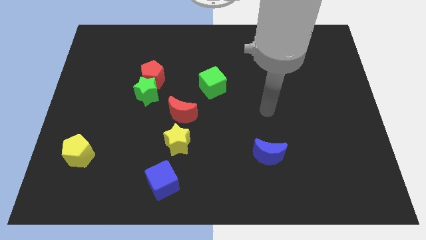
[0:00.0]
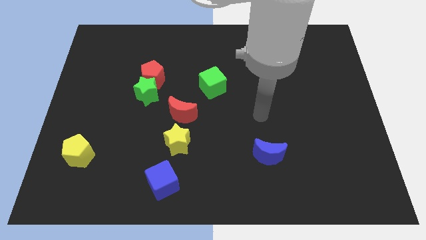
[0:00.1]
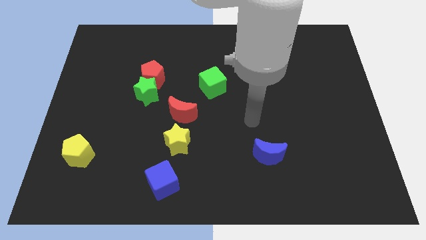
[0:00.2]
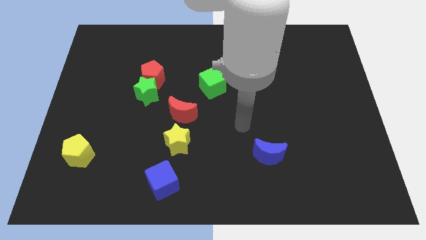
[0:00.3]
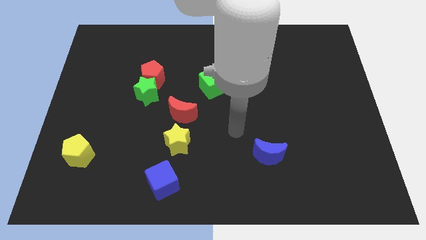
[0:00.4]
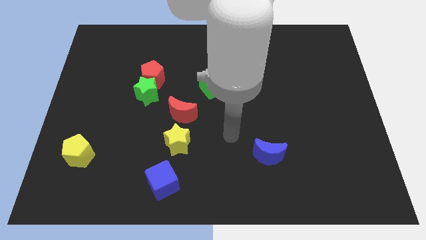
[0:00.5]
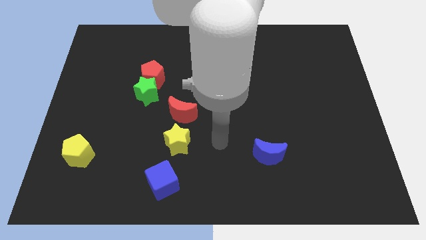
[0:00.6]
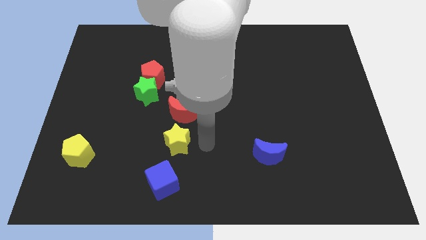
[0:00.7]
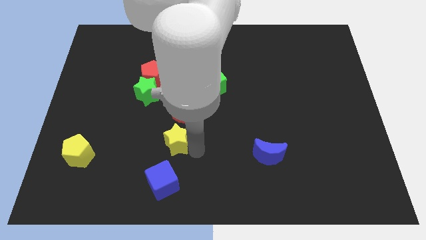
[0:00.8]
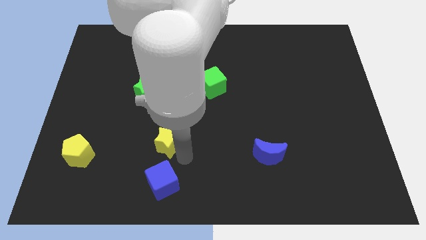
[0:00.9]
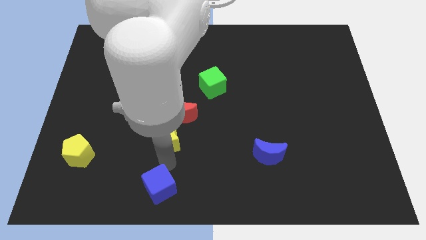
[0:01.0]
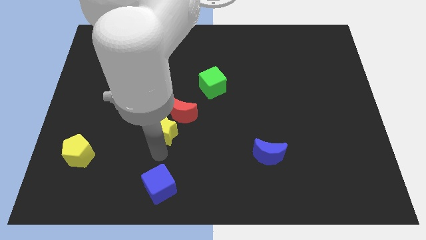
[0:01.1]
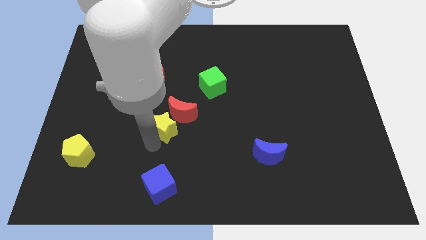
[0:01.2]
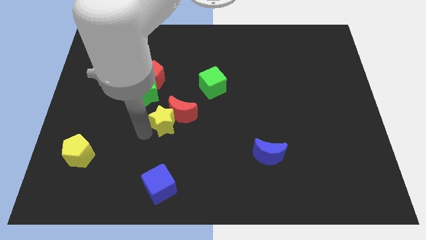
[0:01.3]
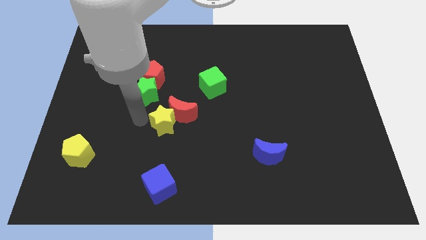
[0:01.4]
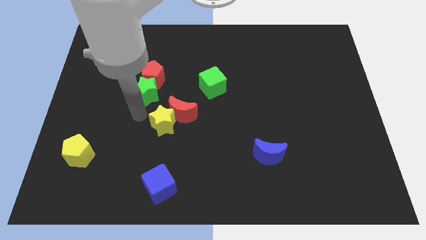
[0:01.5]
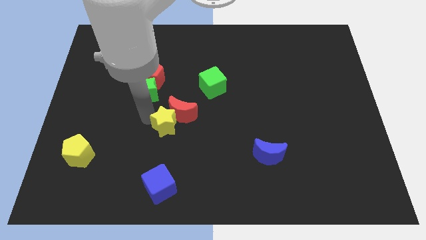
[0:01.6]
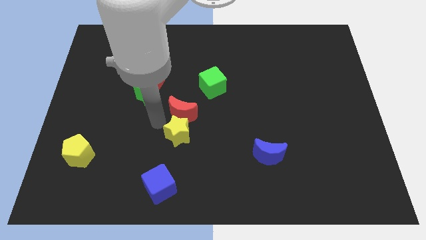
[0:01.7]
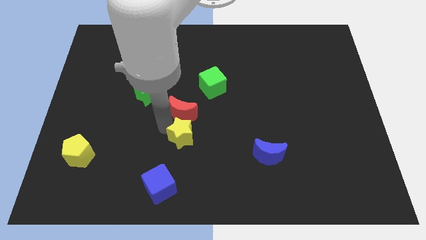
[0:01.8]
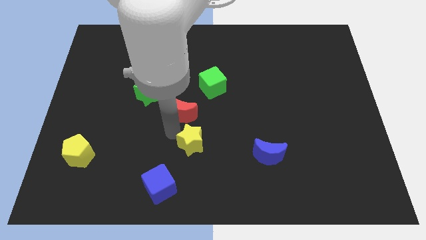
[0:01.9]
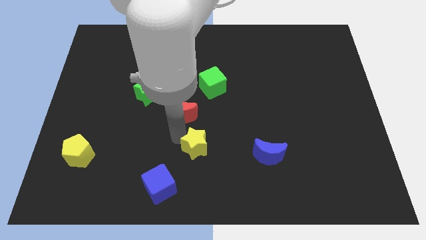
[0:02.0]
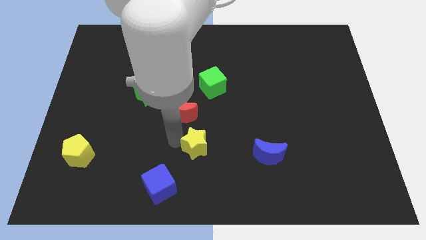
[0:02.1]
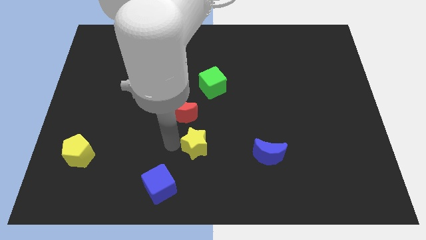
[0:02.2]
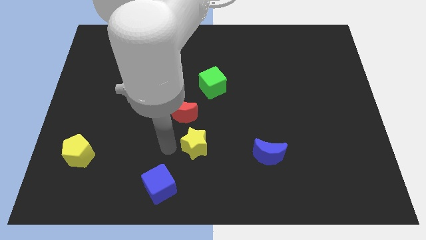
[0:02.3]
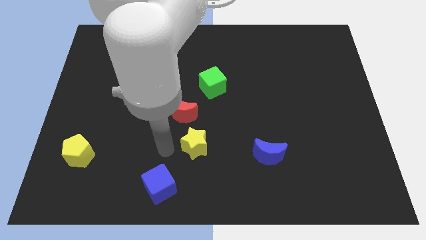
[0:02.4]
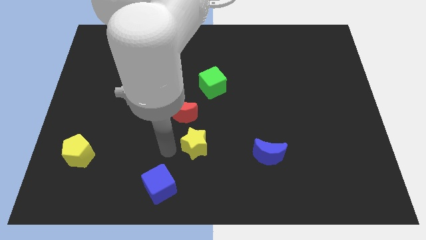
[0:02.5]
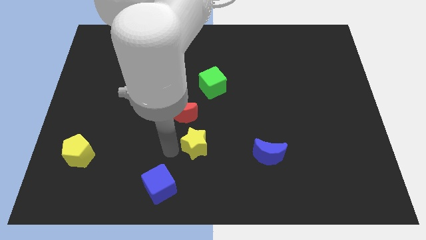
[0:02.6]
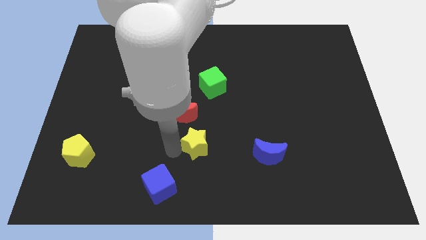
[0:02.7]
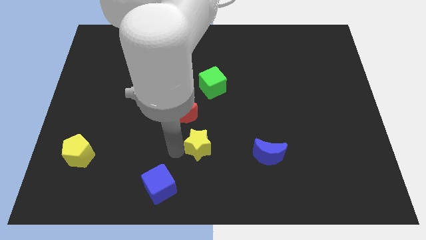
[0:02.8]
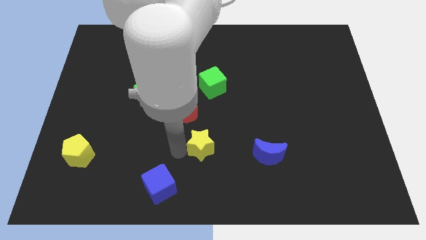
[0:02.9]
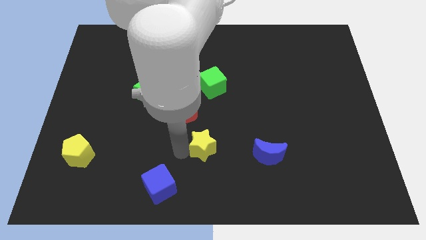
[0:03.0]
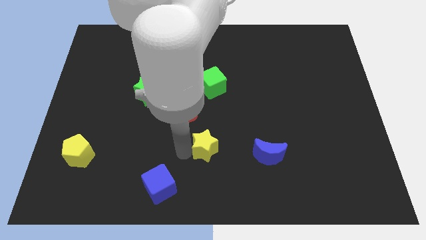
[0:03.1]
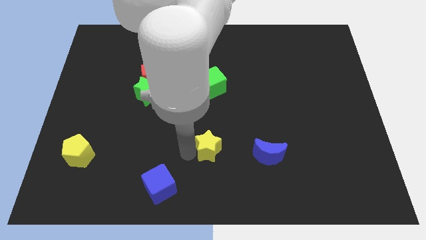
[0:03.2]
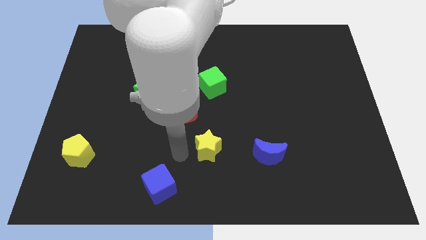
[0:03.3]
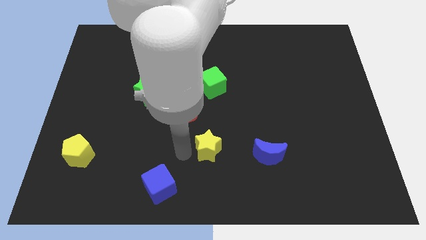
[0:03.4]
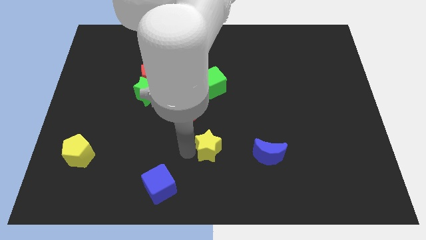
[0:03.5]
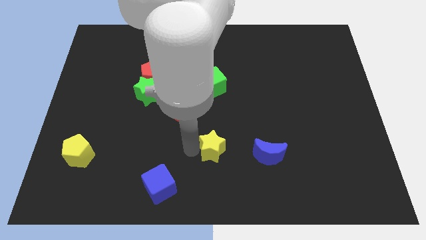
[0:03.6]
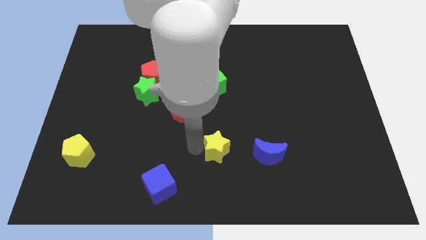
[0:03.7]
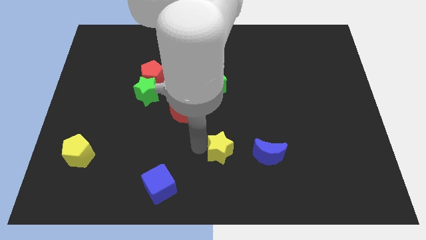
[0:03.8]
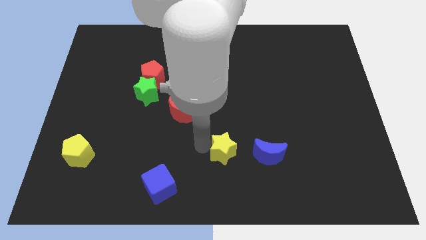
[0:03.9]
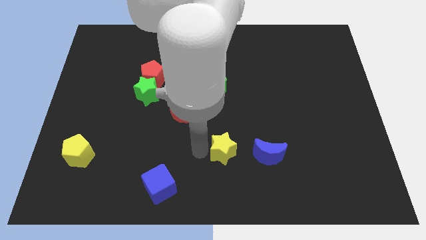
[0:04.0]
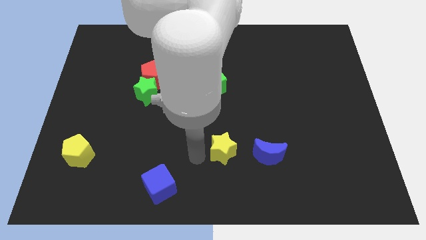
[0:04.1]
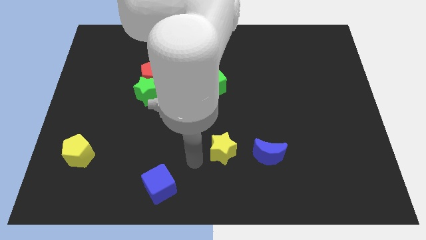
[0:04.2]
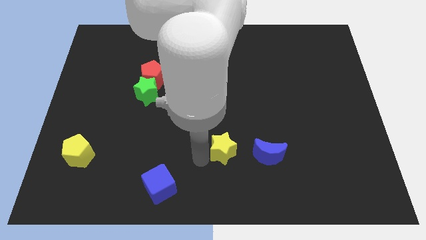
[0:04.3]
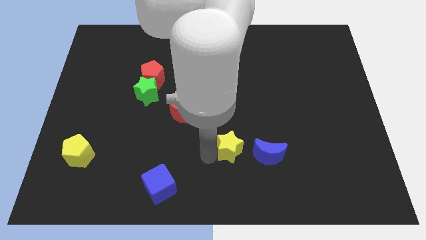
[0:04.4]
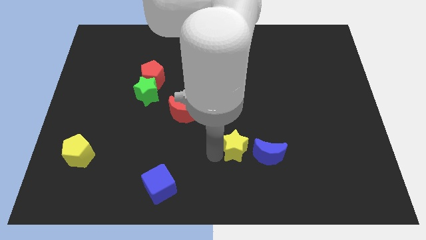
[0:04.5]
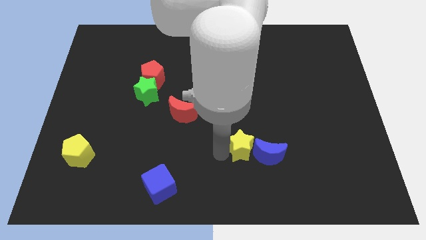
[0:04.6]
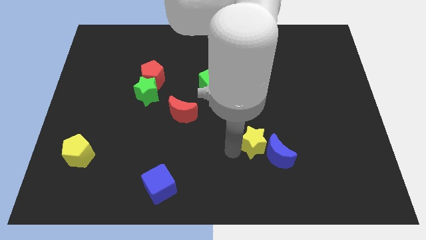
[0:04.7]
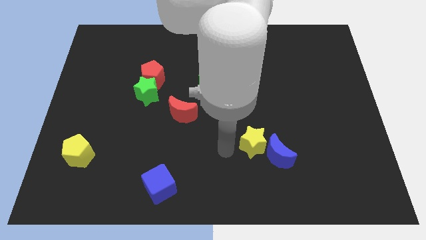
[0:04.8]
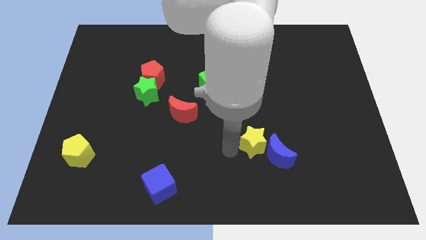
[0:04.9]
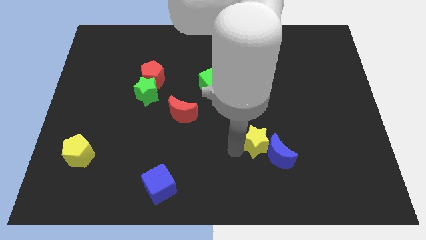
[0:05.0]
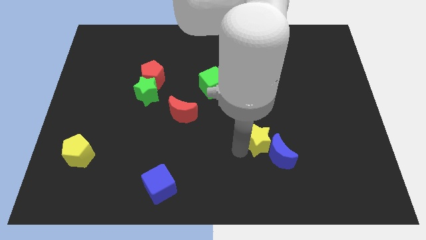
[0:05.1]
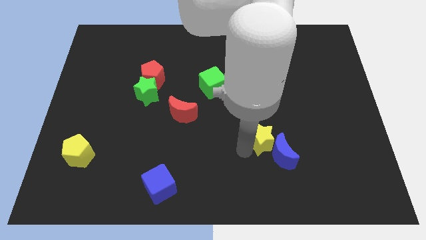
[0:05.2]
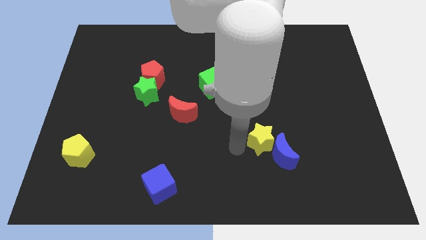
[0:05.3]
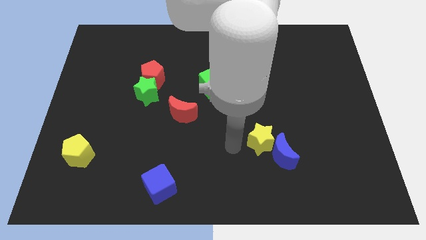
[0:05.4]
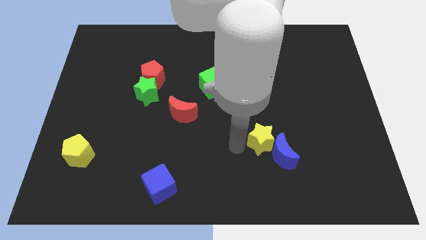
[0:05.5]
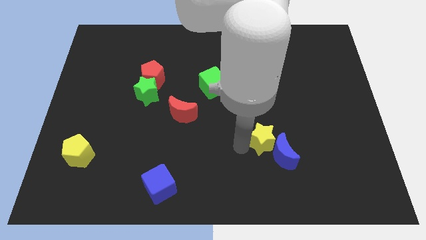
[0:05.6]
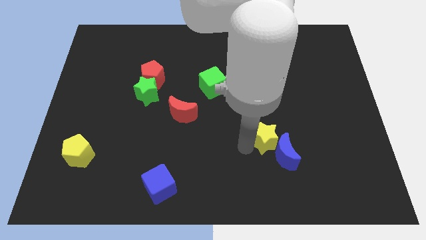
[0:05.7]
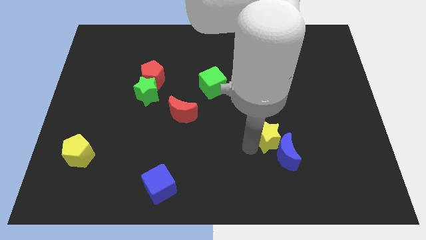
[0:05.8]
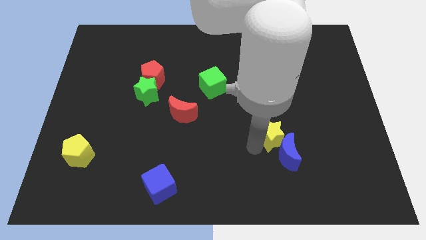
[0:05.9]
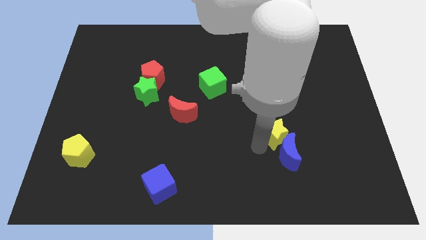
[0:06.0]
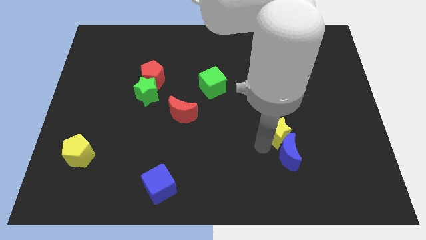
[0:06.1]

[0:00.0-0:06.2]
put the yellow star to the top right side of the blue moon

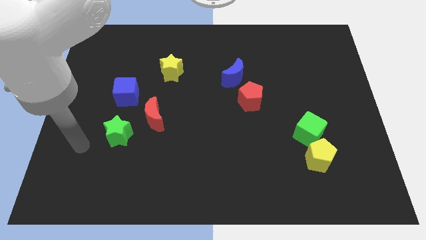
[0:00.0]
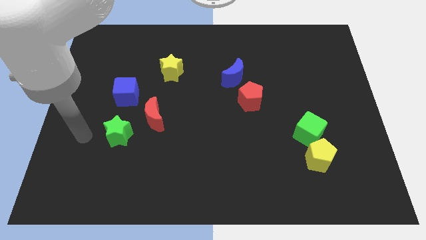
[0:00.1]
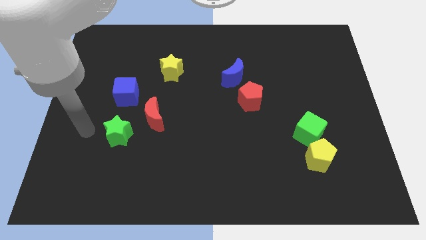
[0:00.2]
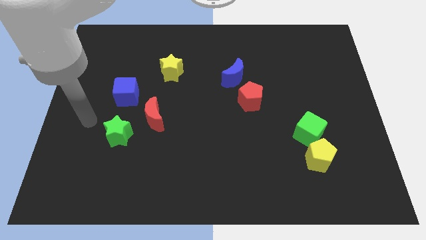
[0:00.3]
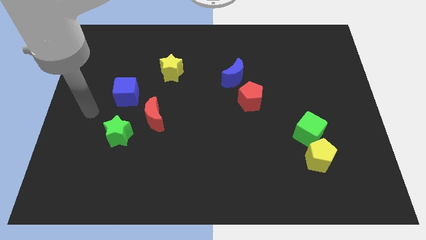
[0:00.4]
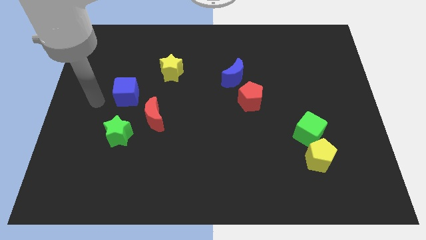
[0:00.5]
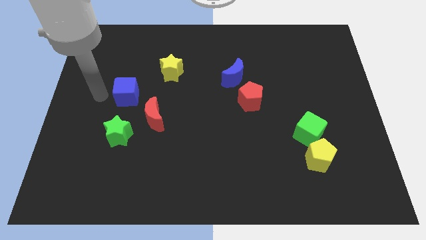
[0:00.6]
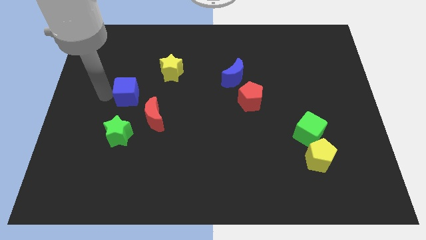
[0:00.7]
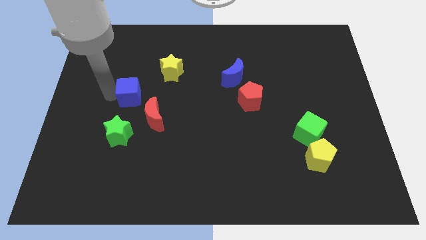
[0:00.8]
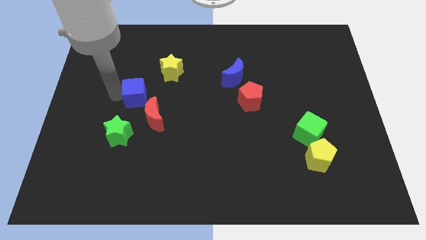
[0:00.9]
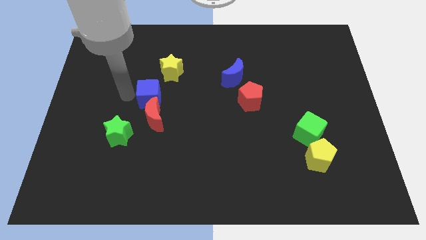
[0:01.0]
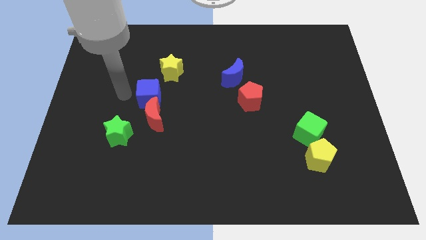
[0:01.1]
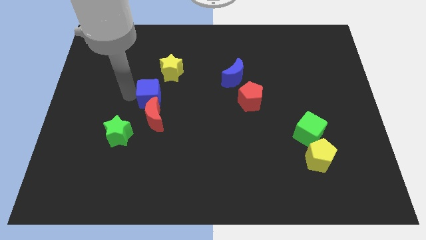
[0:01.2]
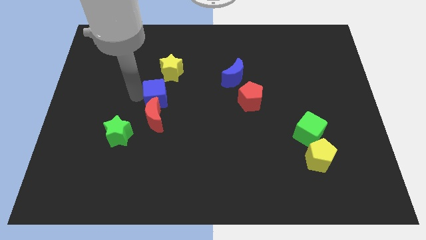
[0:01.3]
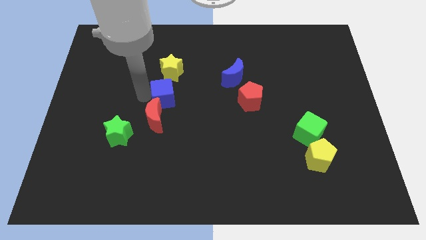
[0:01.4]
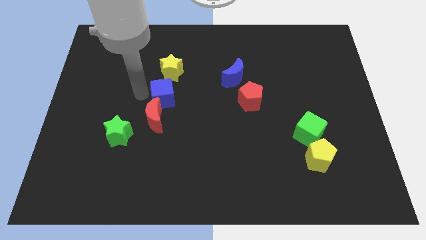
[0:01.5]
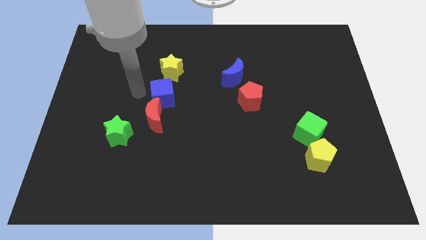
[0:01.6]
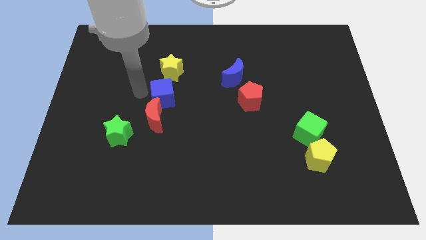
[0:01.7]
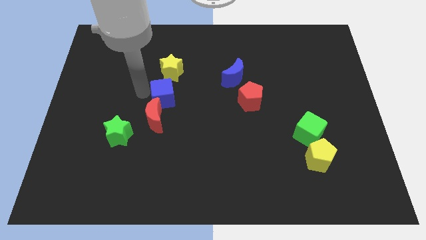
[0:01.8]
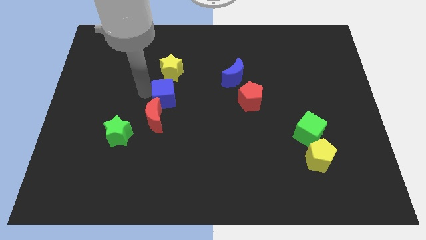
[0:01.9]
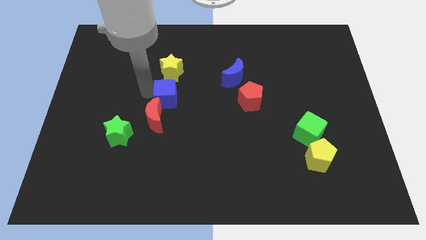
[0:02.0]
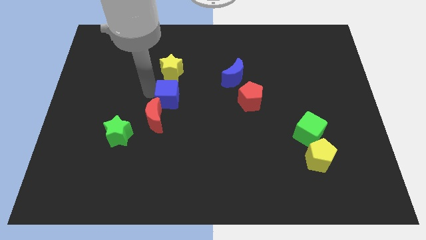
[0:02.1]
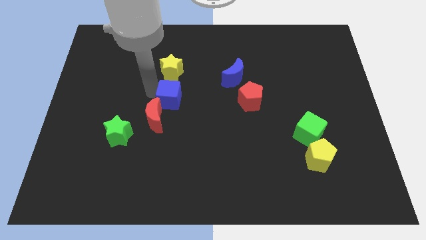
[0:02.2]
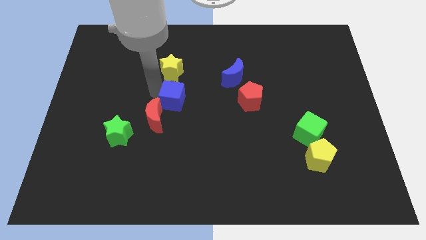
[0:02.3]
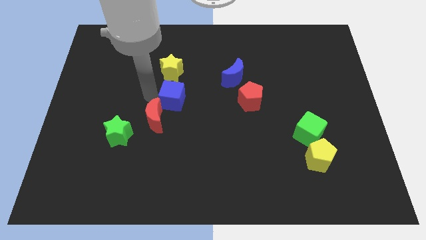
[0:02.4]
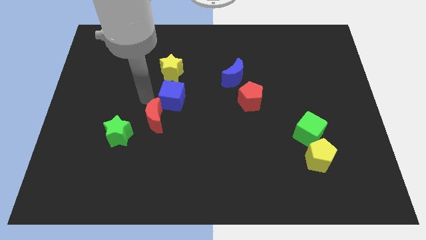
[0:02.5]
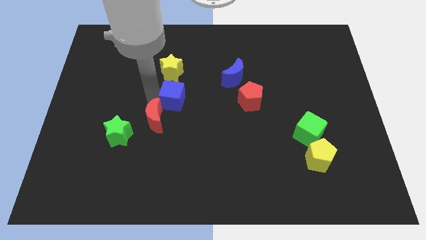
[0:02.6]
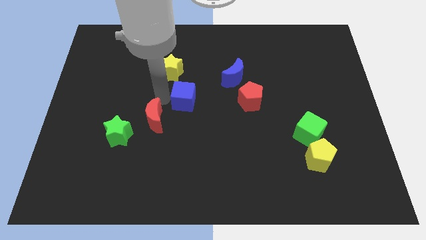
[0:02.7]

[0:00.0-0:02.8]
push the blue cube just left of the red pentagon
